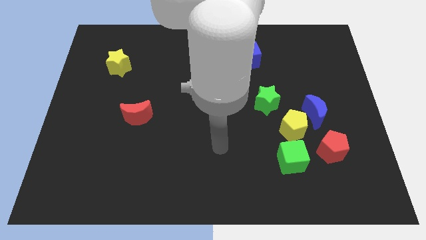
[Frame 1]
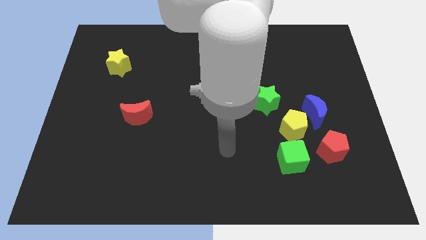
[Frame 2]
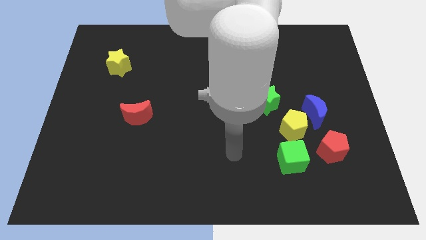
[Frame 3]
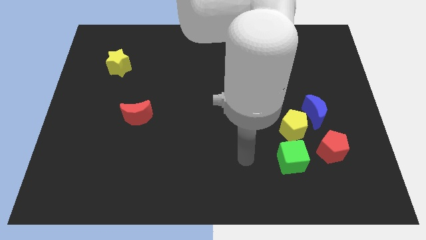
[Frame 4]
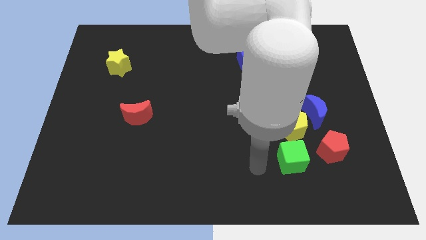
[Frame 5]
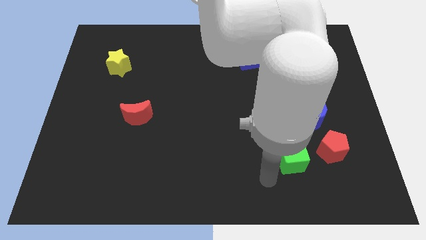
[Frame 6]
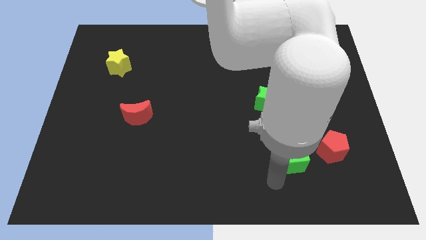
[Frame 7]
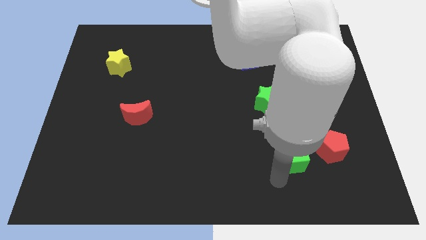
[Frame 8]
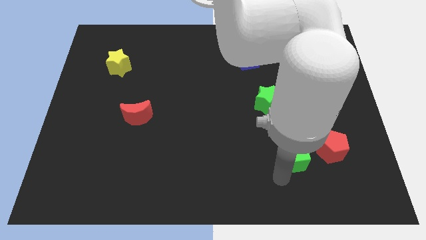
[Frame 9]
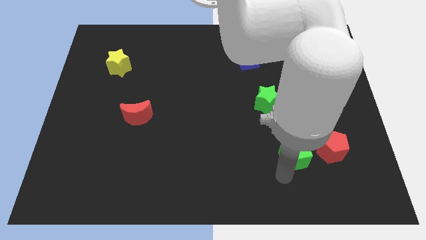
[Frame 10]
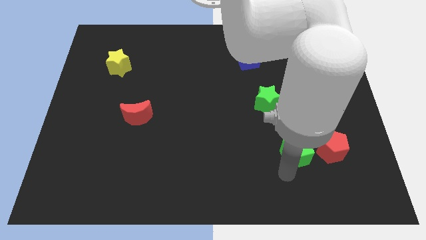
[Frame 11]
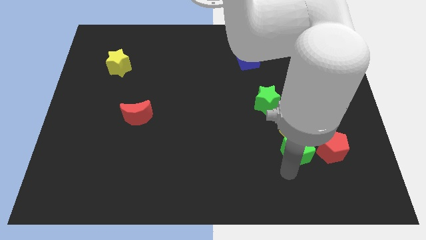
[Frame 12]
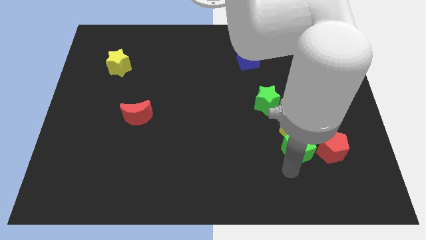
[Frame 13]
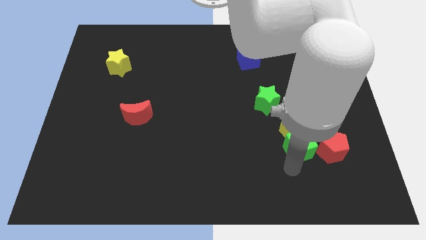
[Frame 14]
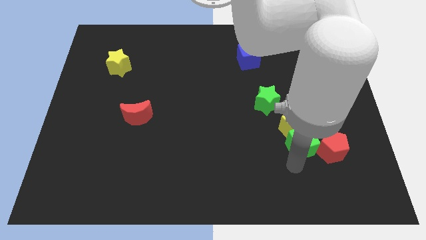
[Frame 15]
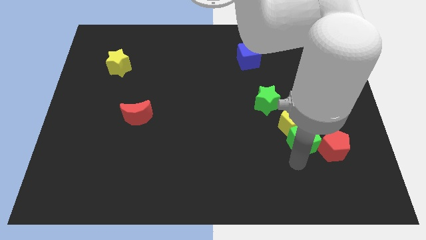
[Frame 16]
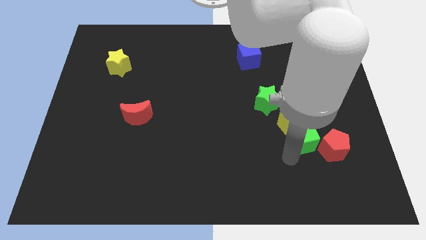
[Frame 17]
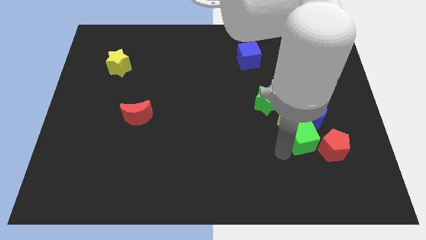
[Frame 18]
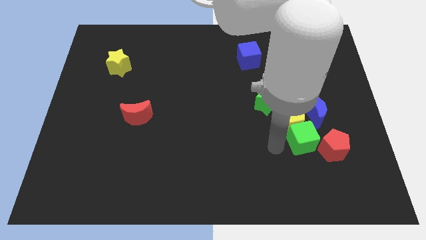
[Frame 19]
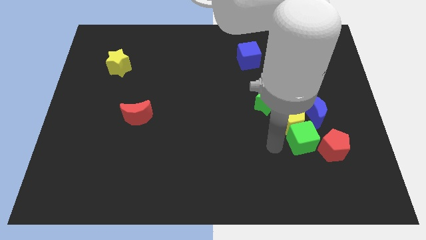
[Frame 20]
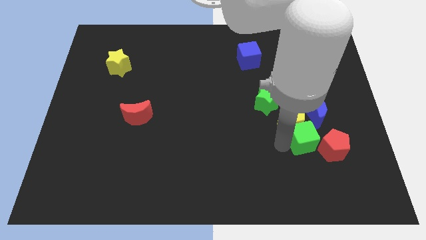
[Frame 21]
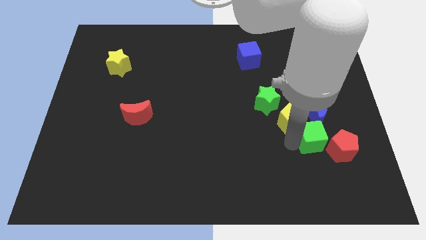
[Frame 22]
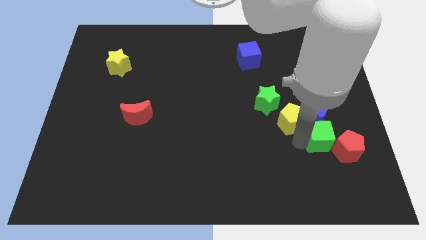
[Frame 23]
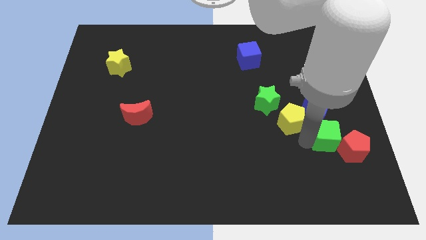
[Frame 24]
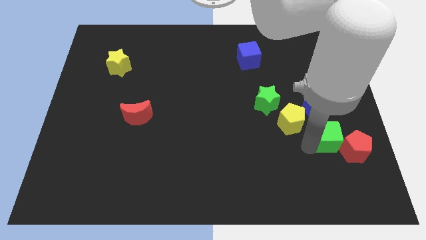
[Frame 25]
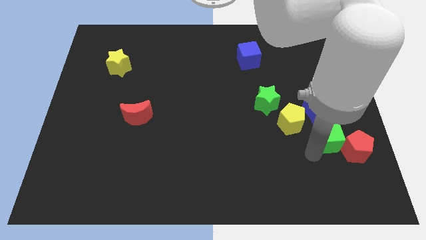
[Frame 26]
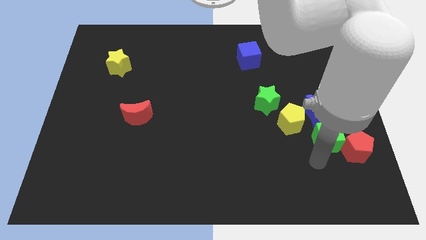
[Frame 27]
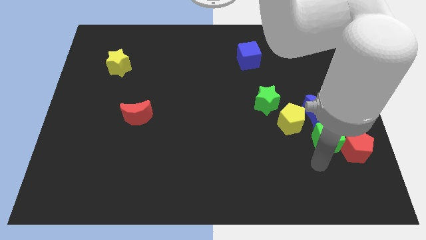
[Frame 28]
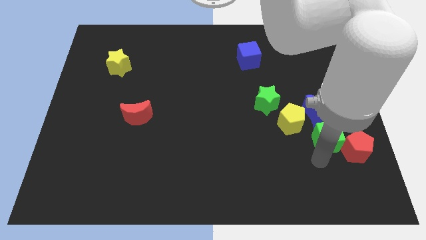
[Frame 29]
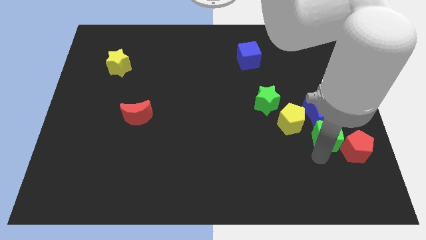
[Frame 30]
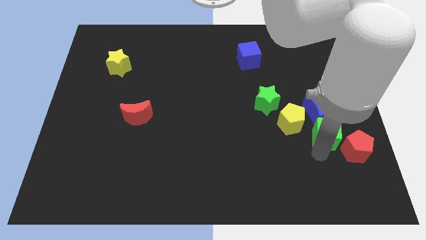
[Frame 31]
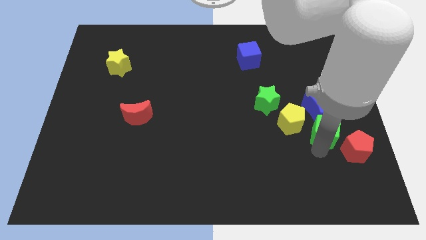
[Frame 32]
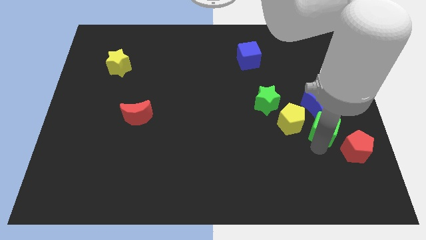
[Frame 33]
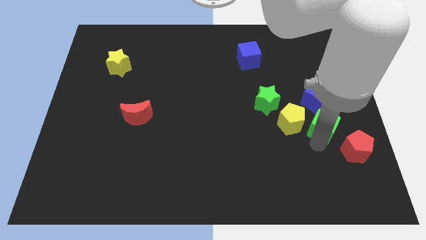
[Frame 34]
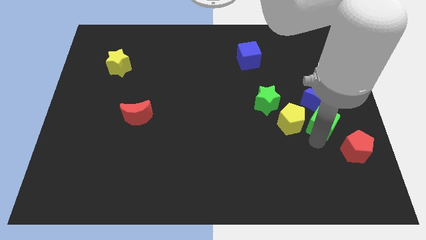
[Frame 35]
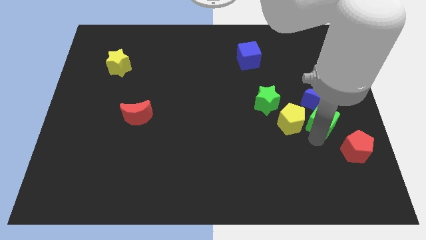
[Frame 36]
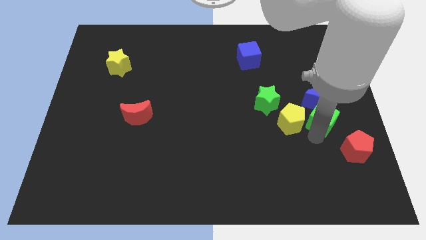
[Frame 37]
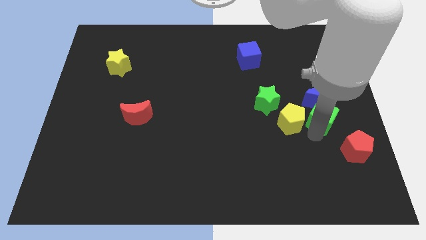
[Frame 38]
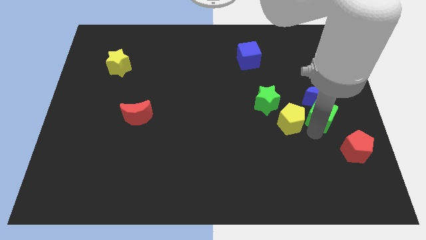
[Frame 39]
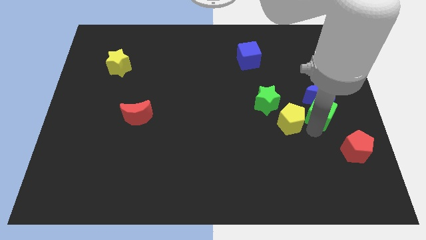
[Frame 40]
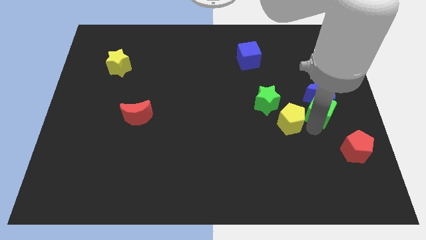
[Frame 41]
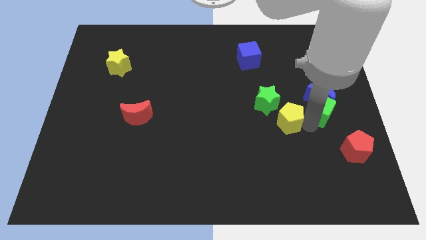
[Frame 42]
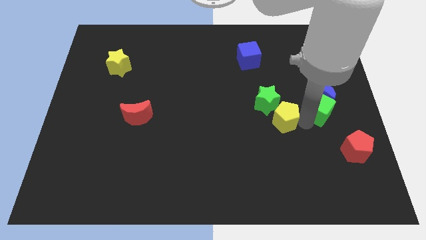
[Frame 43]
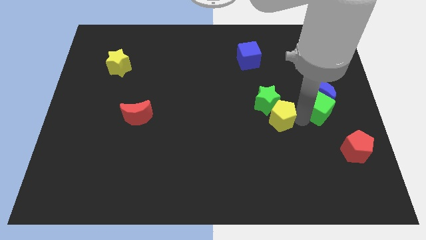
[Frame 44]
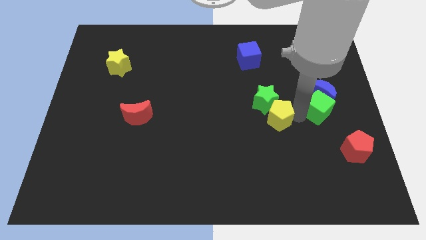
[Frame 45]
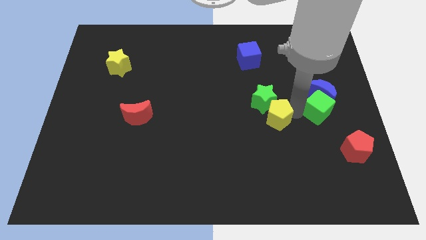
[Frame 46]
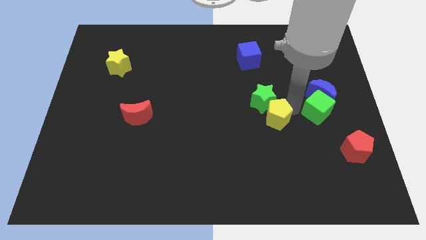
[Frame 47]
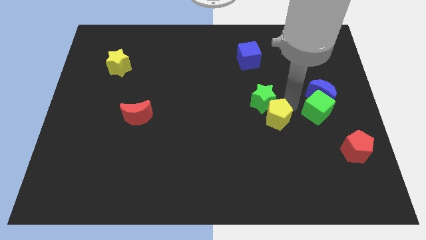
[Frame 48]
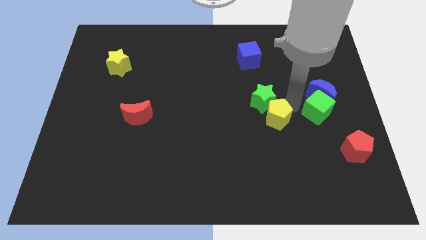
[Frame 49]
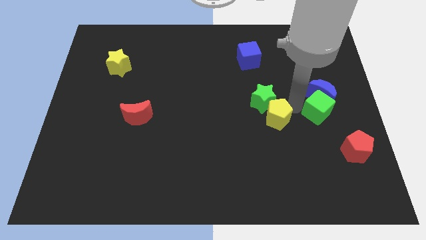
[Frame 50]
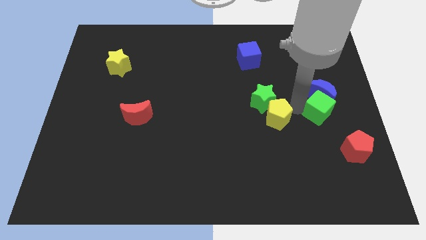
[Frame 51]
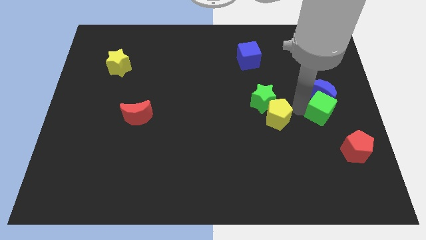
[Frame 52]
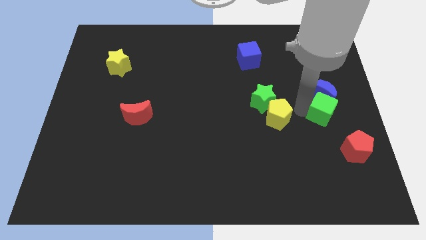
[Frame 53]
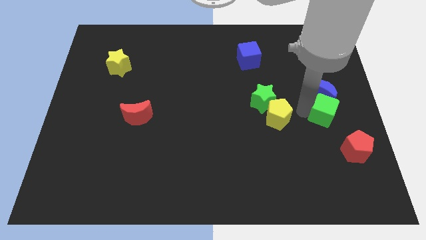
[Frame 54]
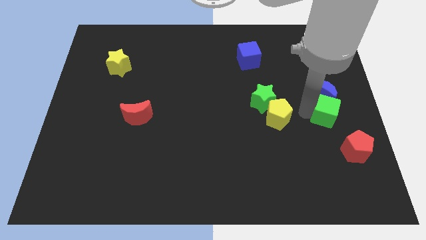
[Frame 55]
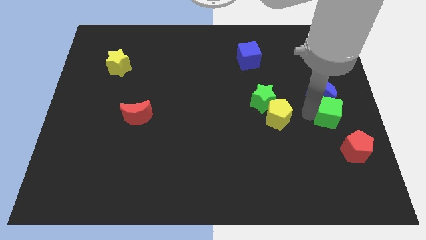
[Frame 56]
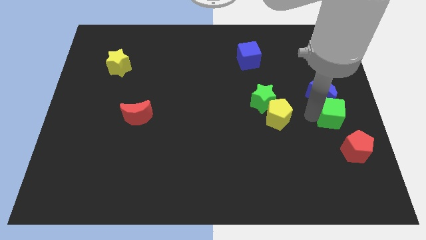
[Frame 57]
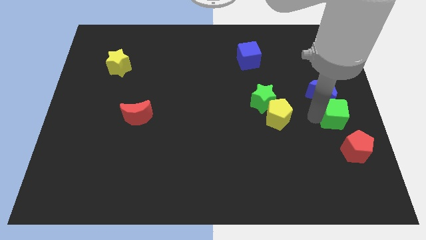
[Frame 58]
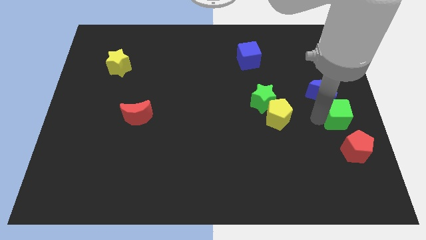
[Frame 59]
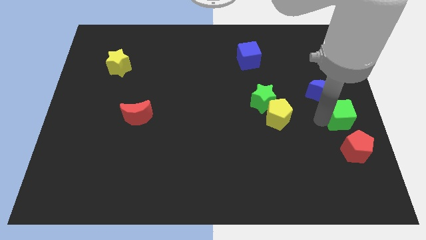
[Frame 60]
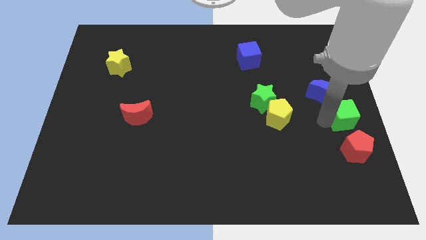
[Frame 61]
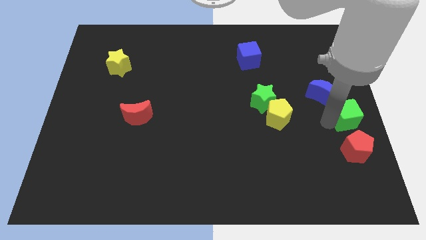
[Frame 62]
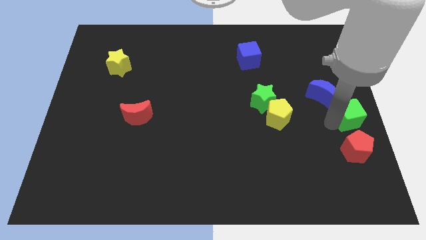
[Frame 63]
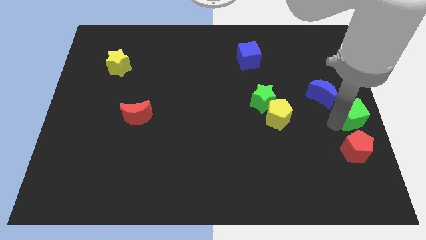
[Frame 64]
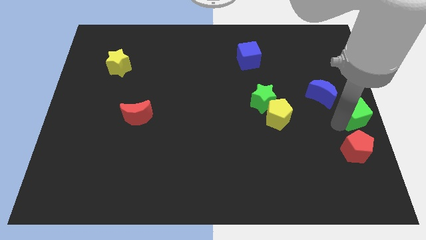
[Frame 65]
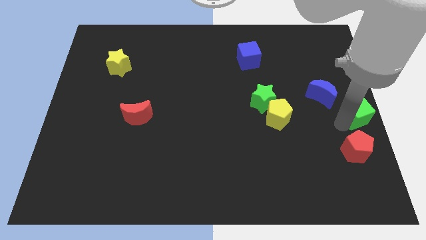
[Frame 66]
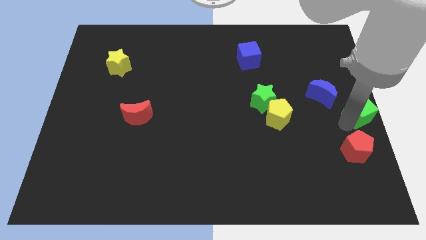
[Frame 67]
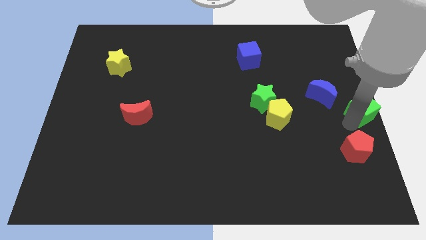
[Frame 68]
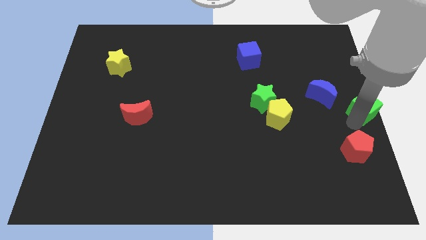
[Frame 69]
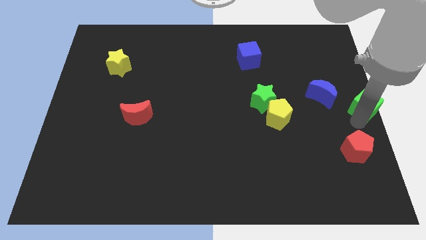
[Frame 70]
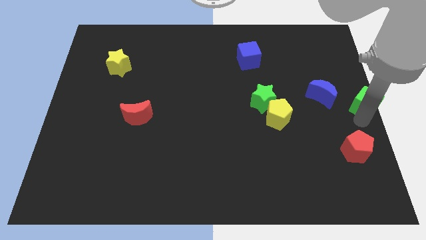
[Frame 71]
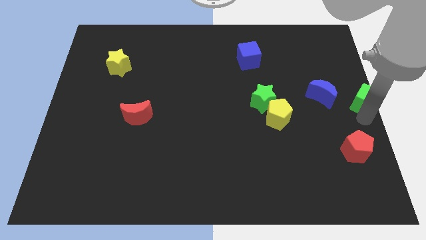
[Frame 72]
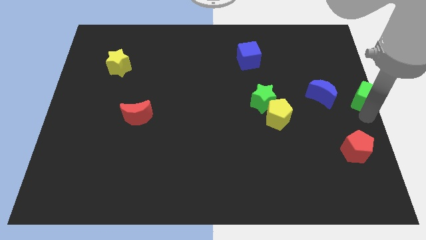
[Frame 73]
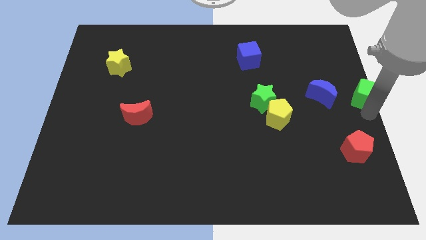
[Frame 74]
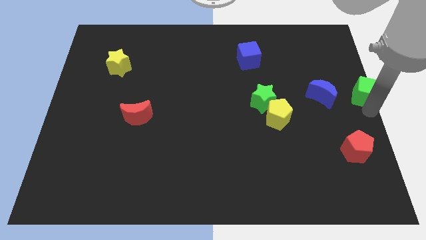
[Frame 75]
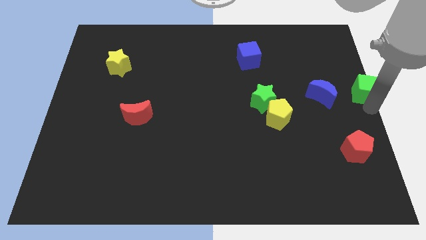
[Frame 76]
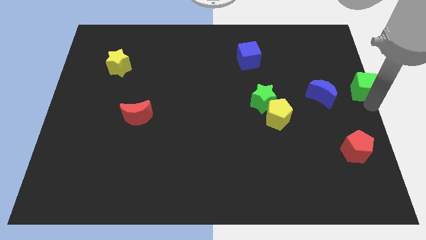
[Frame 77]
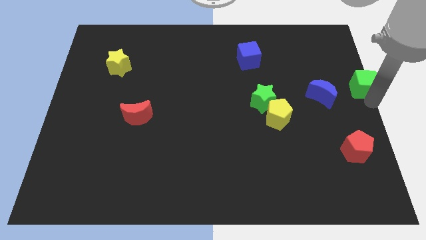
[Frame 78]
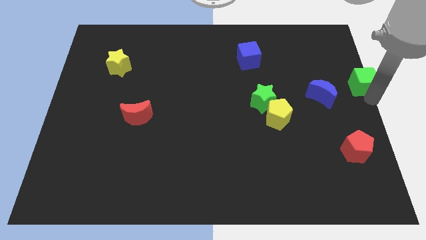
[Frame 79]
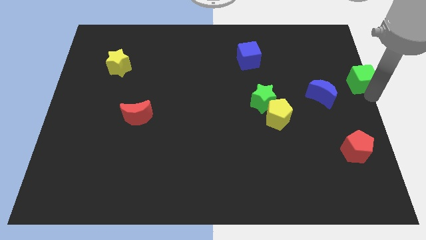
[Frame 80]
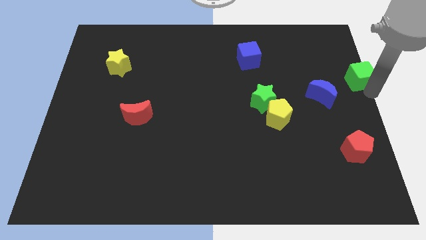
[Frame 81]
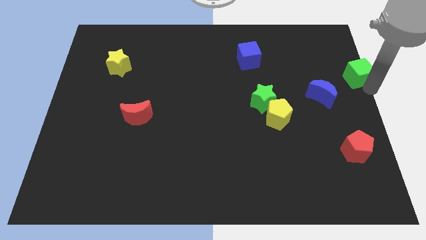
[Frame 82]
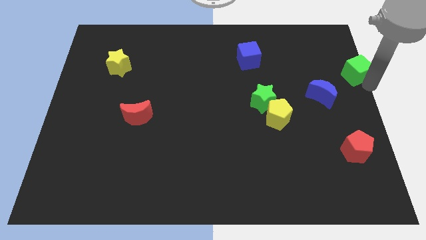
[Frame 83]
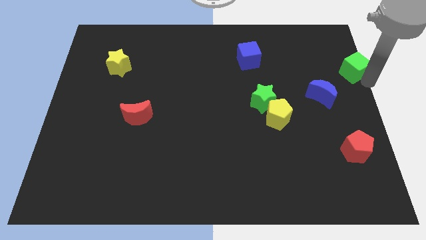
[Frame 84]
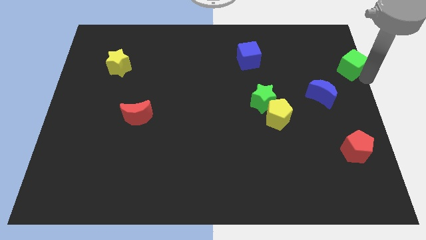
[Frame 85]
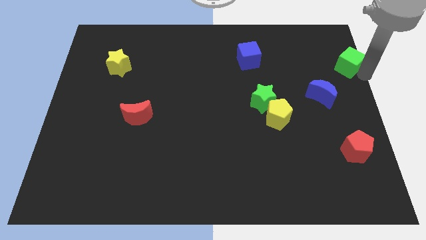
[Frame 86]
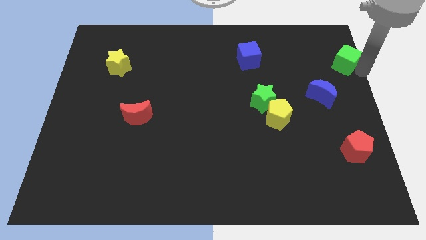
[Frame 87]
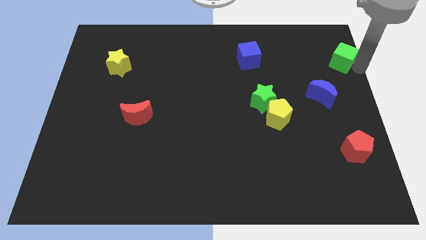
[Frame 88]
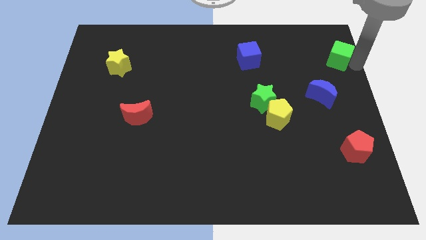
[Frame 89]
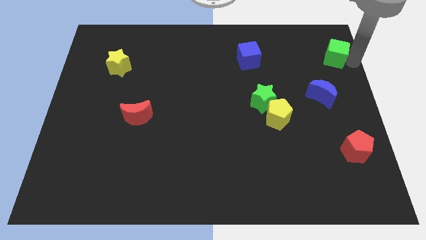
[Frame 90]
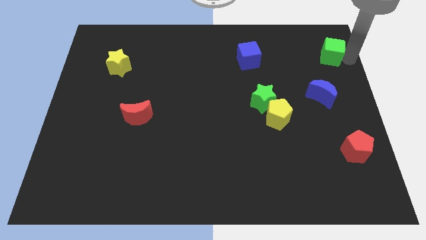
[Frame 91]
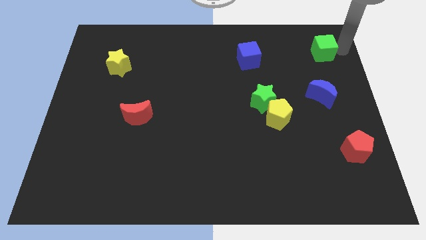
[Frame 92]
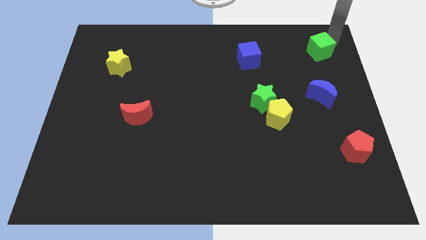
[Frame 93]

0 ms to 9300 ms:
move the green cube to the top of the blue moon
